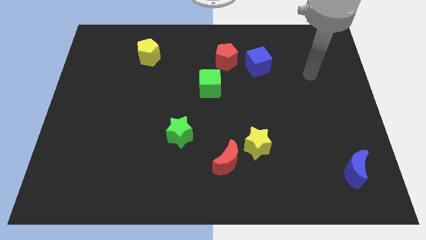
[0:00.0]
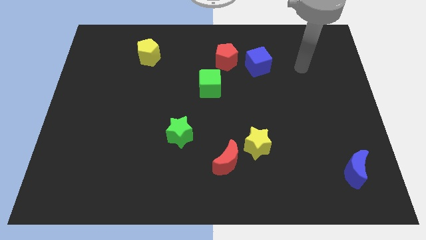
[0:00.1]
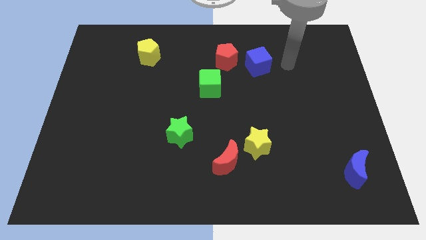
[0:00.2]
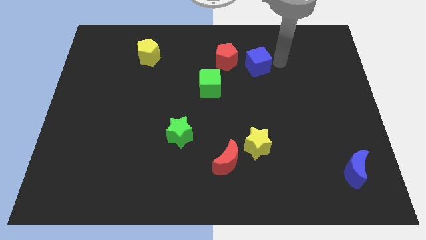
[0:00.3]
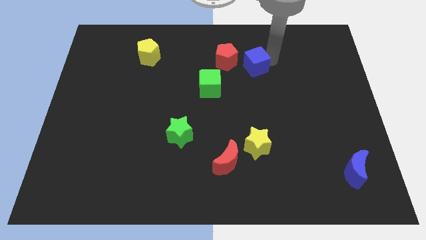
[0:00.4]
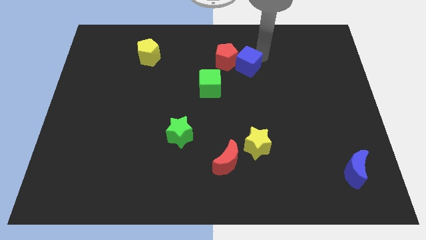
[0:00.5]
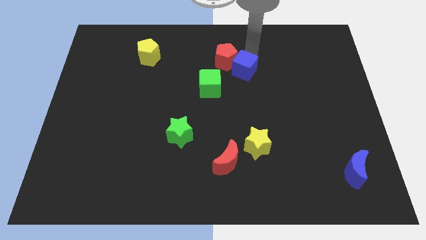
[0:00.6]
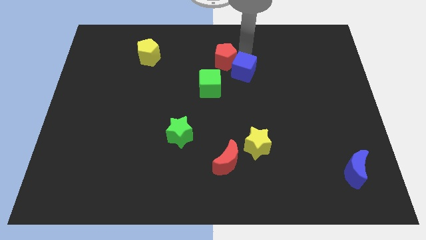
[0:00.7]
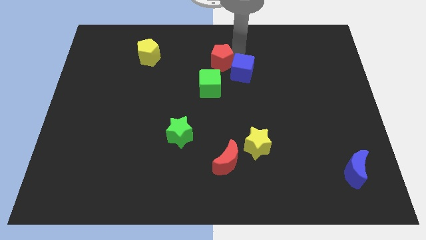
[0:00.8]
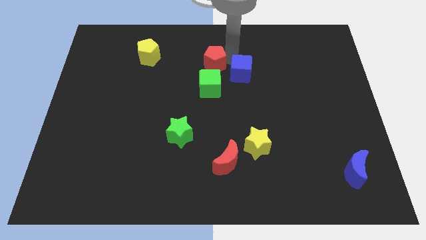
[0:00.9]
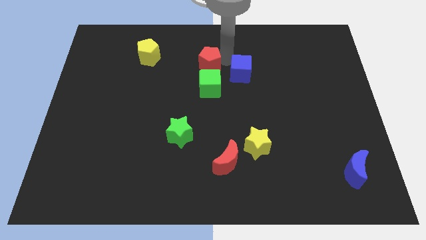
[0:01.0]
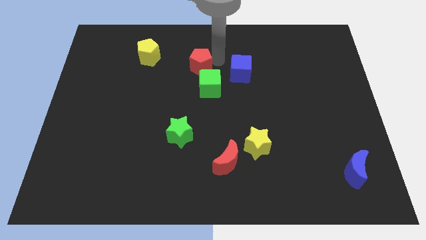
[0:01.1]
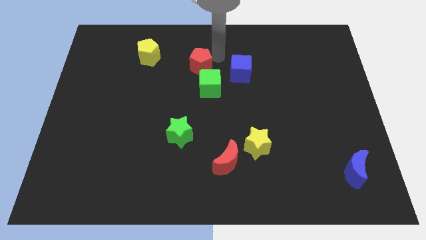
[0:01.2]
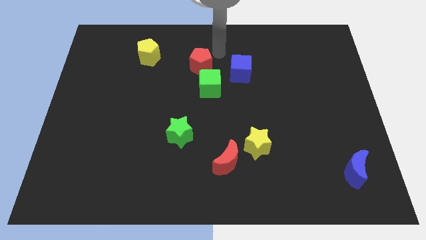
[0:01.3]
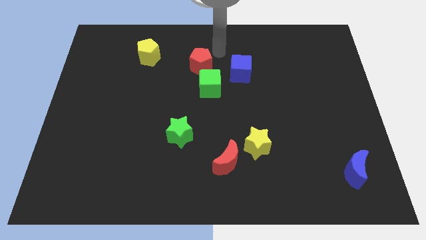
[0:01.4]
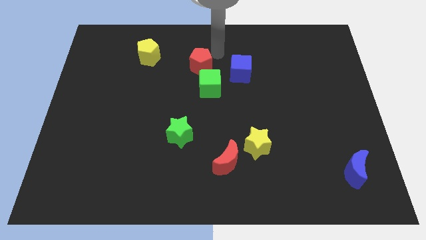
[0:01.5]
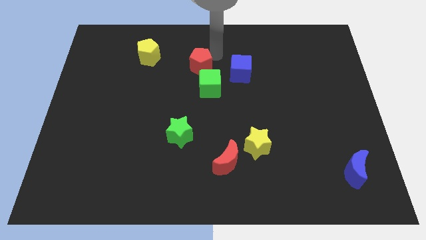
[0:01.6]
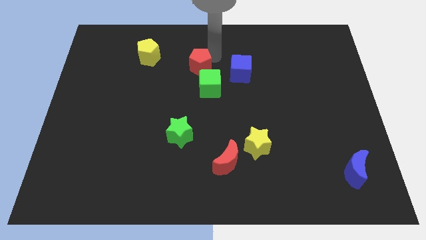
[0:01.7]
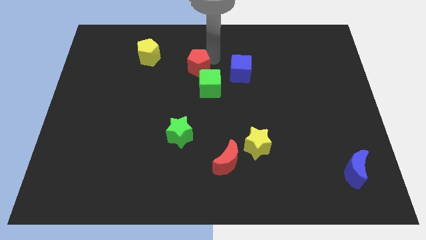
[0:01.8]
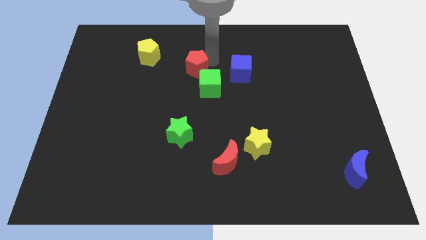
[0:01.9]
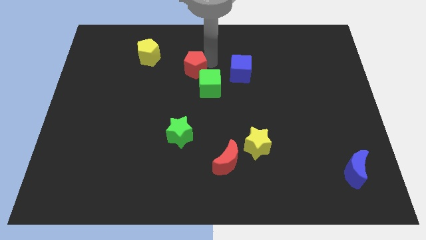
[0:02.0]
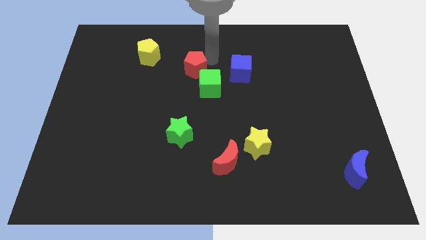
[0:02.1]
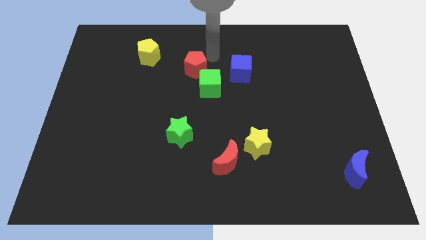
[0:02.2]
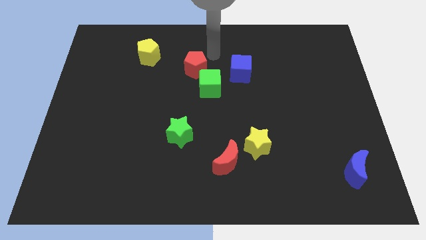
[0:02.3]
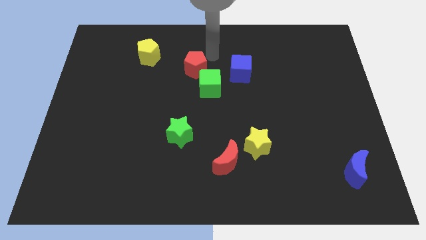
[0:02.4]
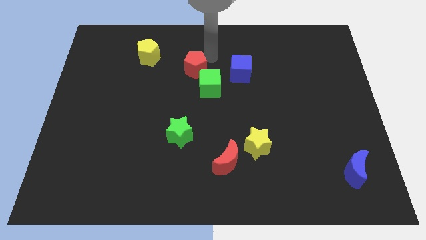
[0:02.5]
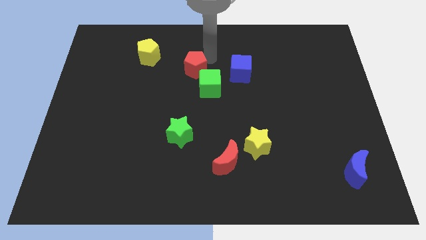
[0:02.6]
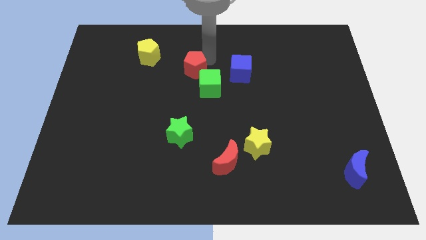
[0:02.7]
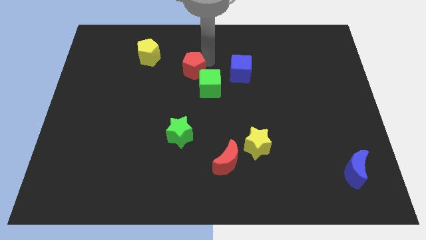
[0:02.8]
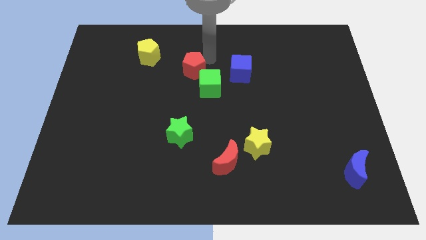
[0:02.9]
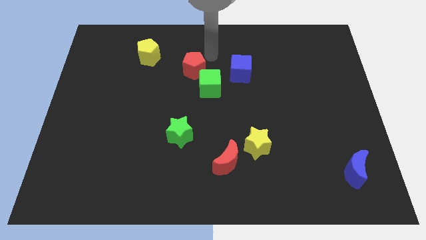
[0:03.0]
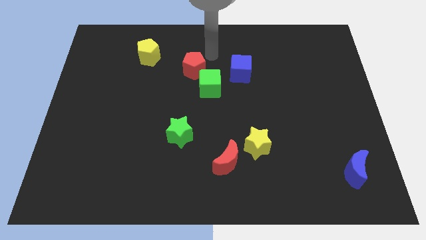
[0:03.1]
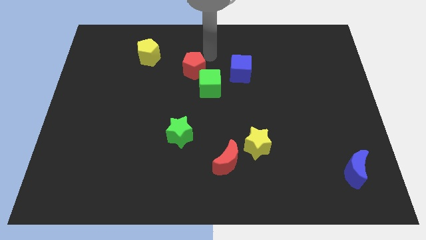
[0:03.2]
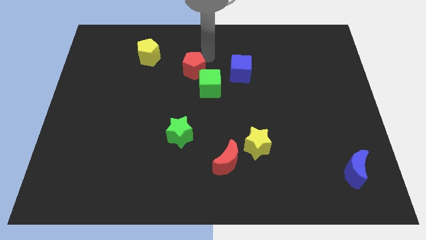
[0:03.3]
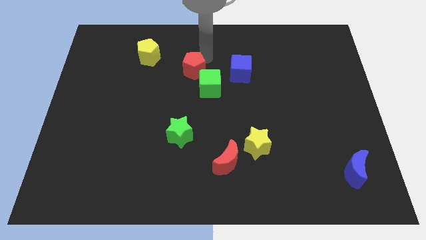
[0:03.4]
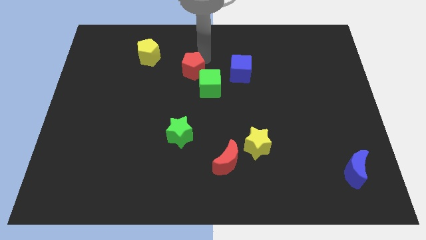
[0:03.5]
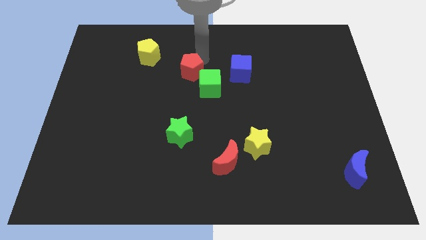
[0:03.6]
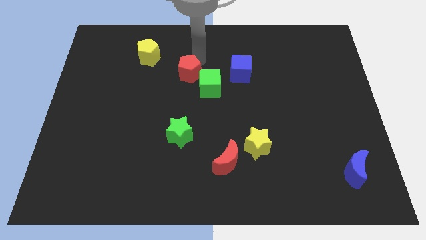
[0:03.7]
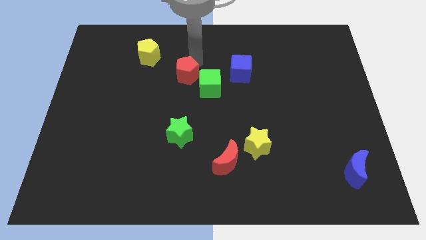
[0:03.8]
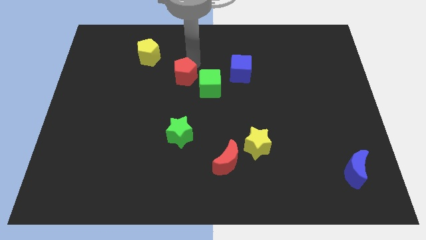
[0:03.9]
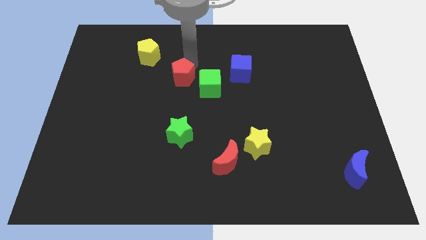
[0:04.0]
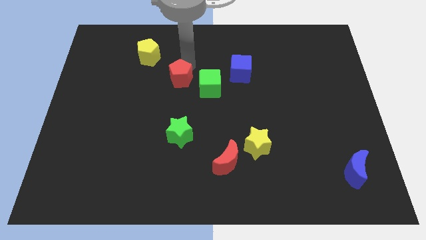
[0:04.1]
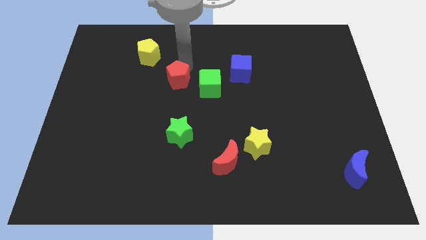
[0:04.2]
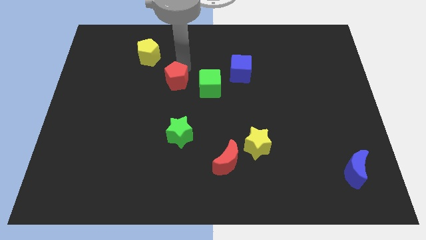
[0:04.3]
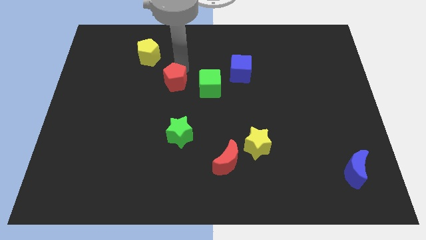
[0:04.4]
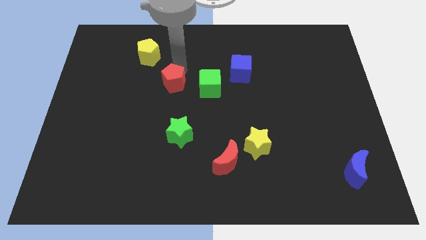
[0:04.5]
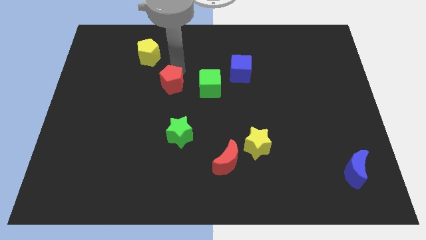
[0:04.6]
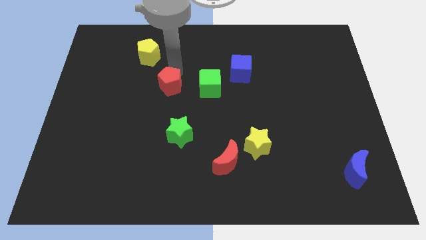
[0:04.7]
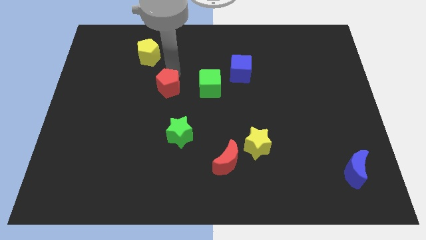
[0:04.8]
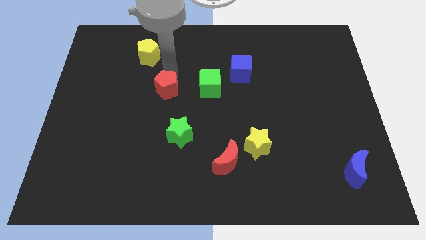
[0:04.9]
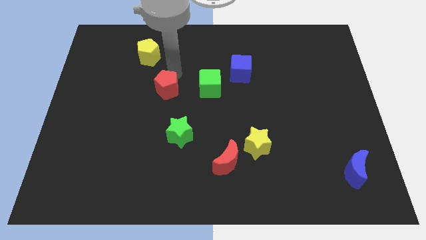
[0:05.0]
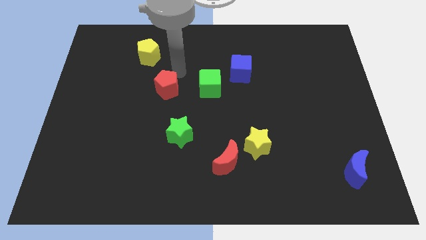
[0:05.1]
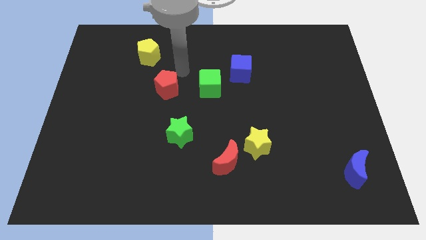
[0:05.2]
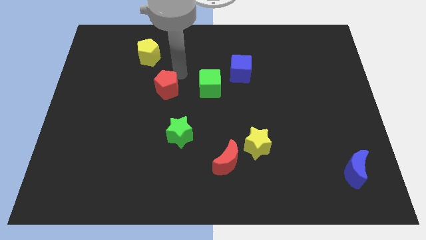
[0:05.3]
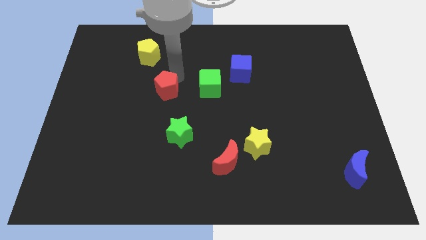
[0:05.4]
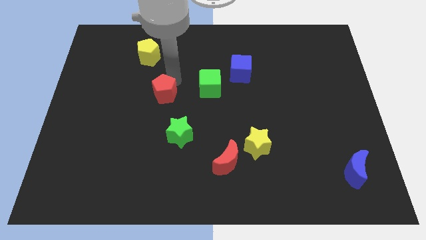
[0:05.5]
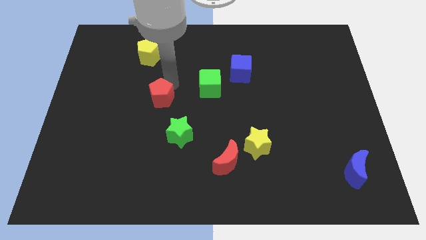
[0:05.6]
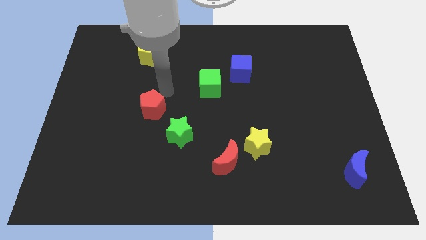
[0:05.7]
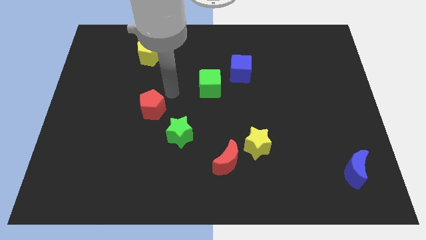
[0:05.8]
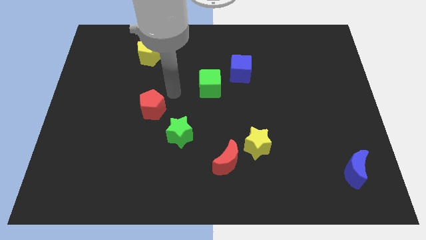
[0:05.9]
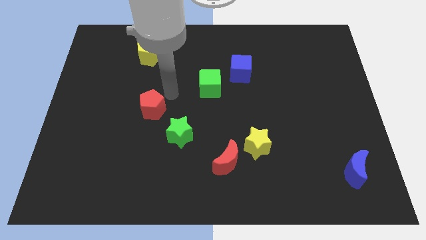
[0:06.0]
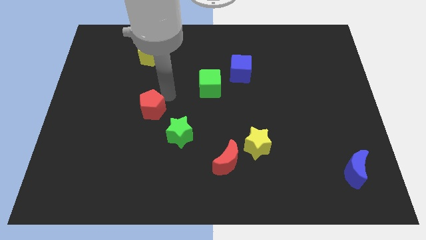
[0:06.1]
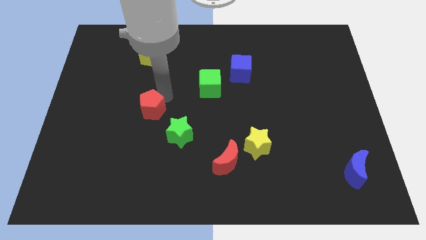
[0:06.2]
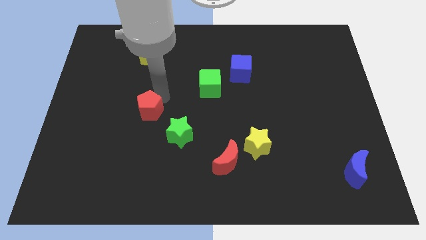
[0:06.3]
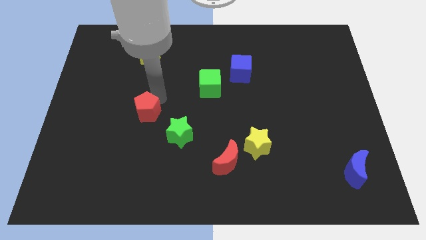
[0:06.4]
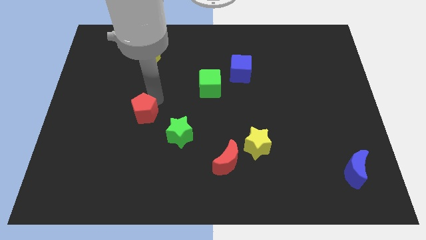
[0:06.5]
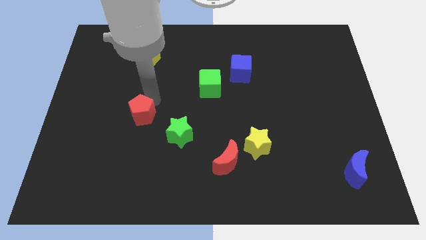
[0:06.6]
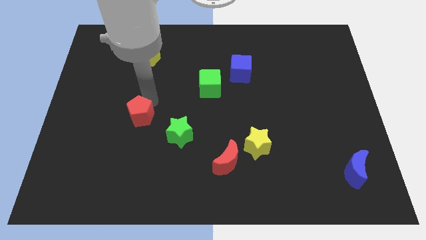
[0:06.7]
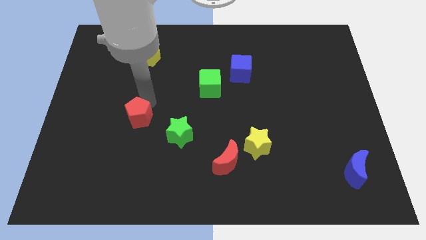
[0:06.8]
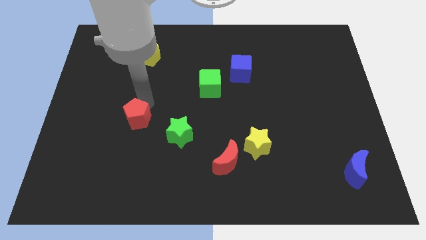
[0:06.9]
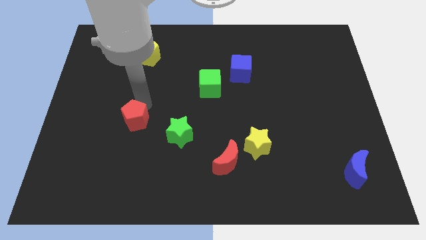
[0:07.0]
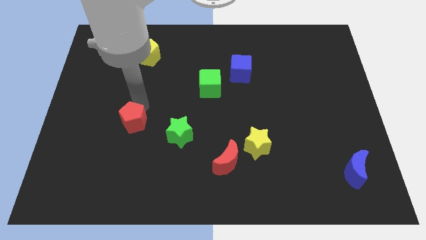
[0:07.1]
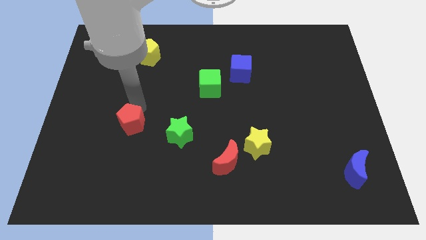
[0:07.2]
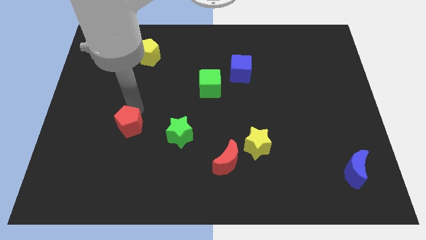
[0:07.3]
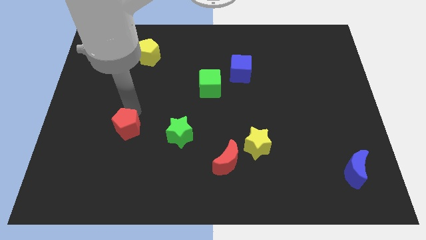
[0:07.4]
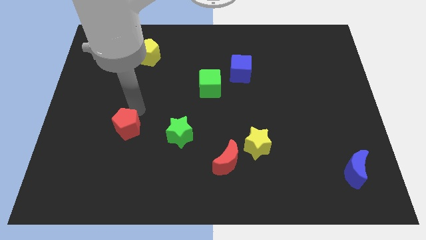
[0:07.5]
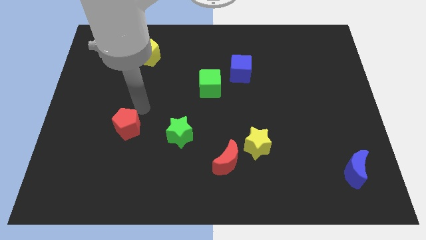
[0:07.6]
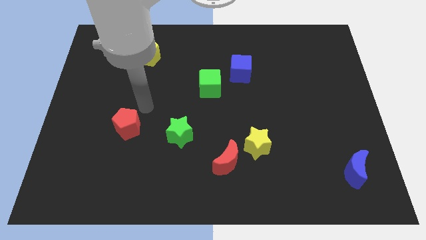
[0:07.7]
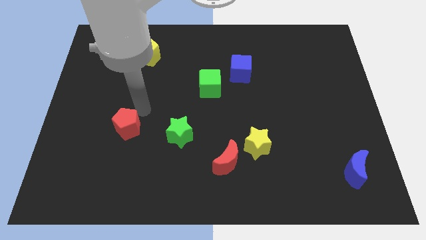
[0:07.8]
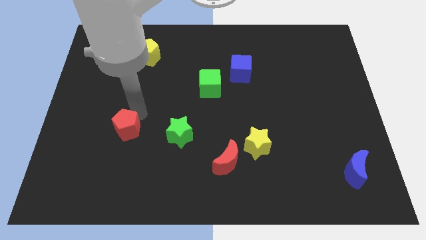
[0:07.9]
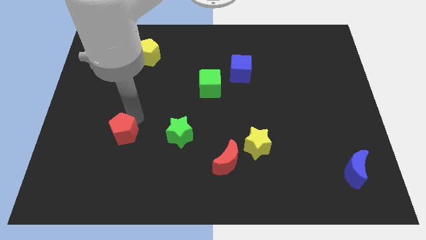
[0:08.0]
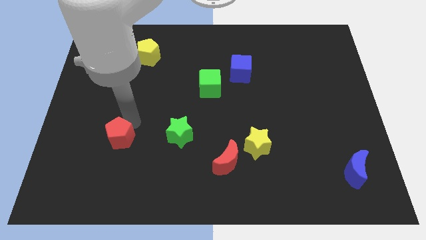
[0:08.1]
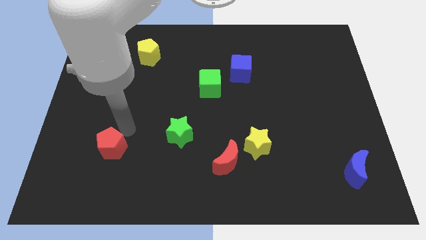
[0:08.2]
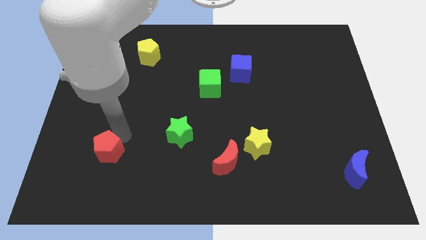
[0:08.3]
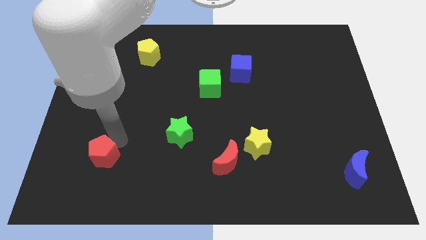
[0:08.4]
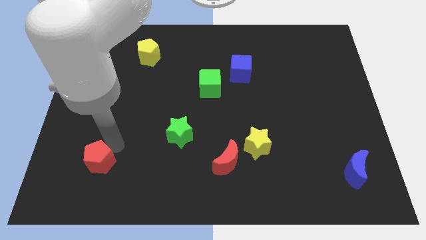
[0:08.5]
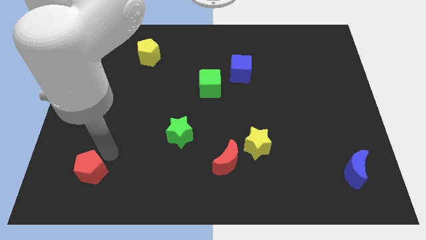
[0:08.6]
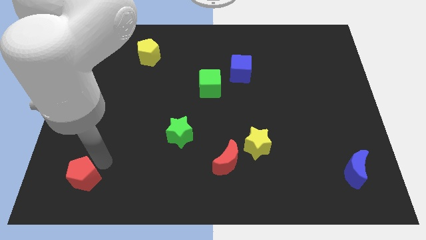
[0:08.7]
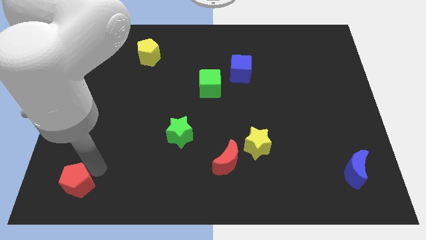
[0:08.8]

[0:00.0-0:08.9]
put the red pentagon to the bottom left
